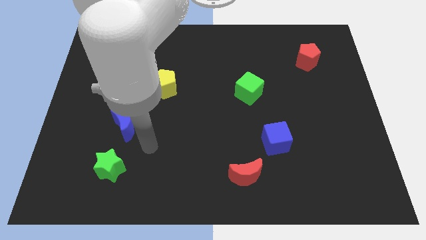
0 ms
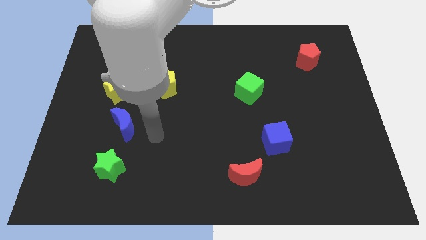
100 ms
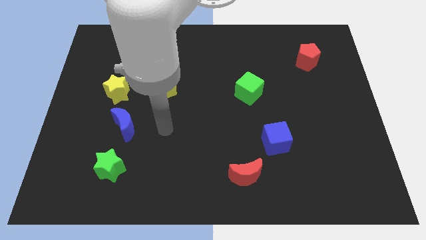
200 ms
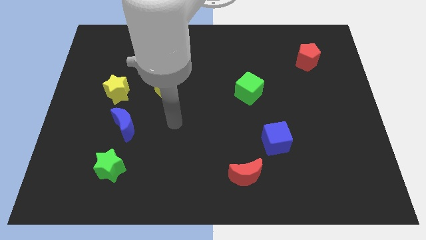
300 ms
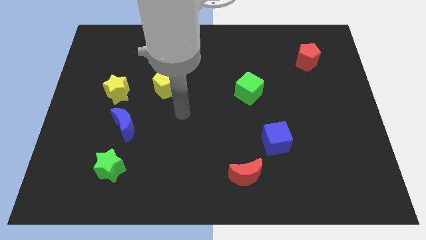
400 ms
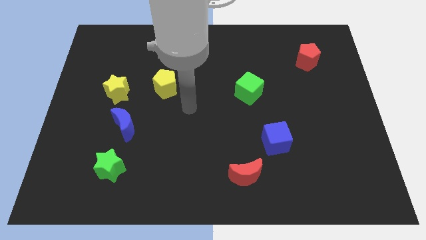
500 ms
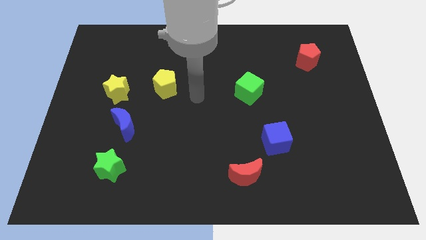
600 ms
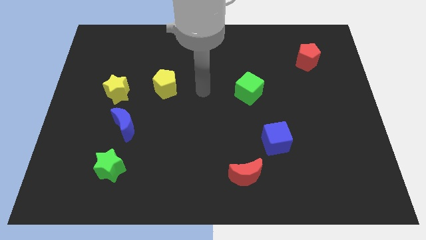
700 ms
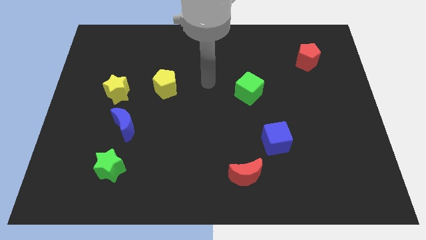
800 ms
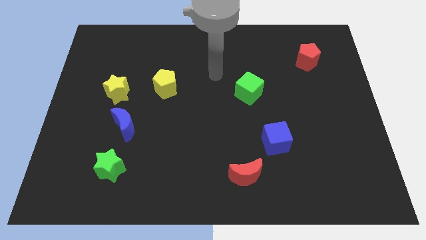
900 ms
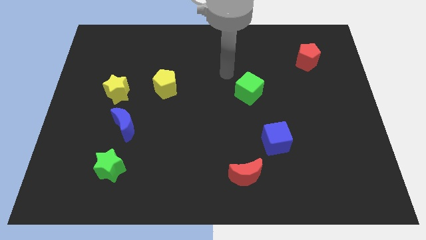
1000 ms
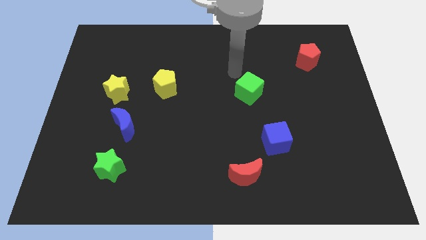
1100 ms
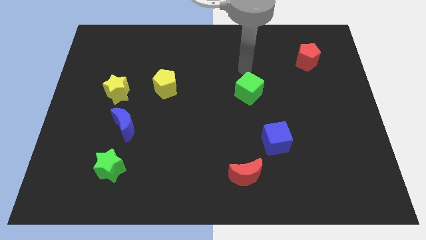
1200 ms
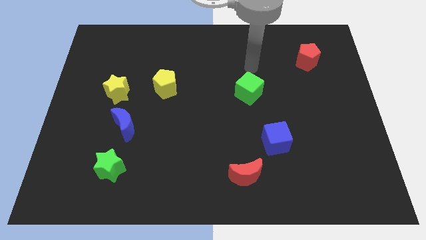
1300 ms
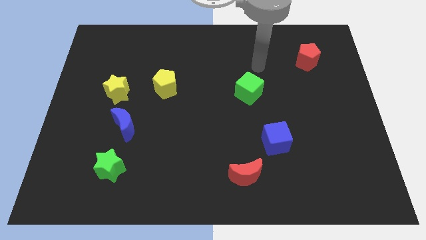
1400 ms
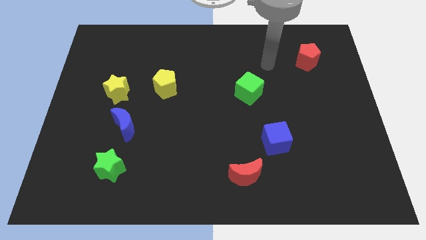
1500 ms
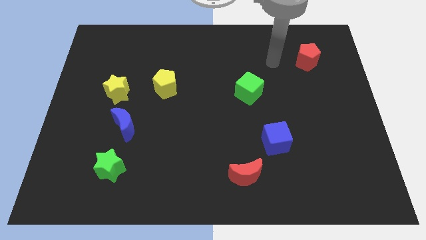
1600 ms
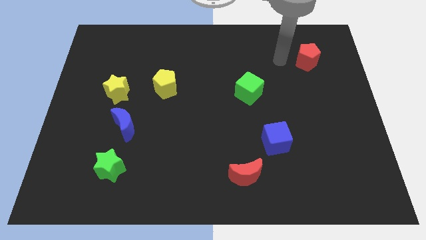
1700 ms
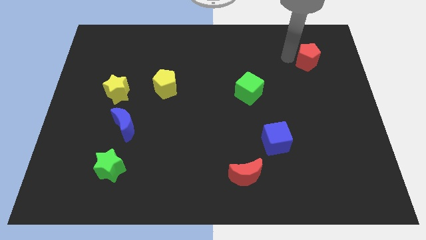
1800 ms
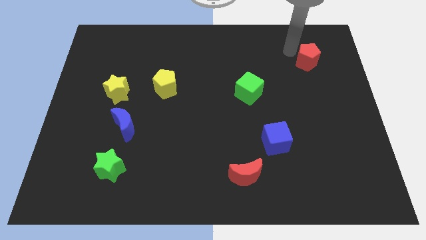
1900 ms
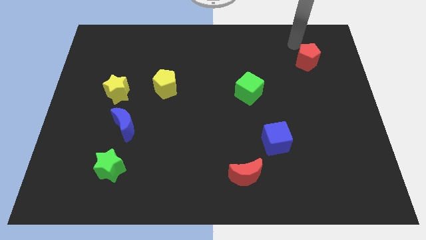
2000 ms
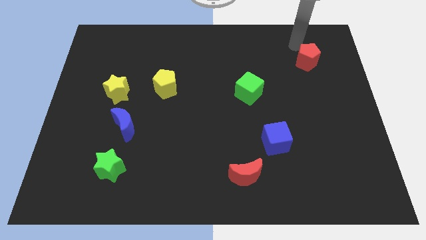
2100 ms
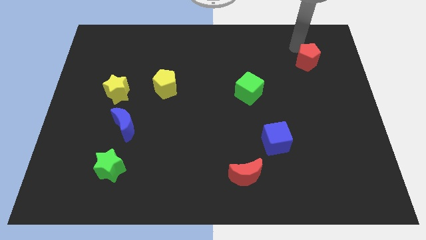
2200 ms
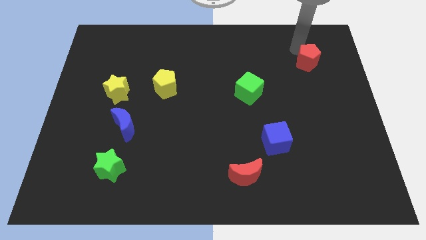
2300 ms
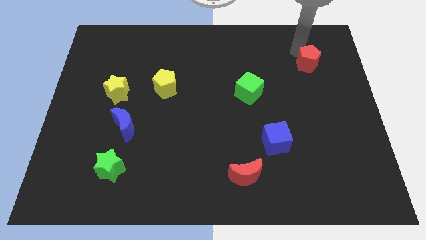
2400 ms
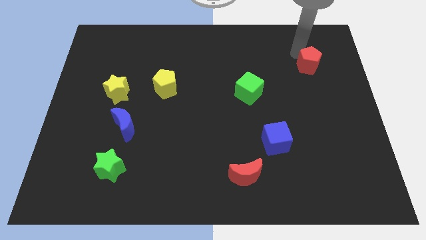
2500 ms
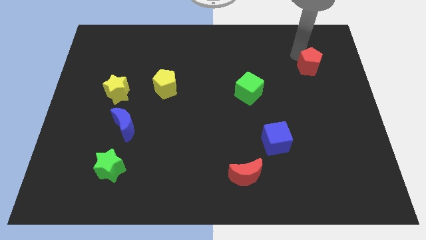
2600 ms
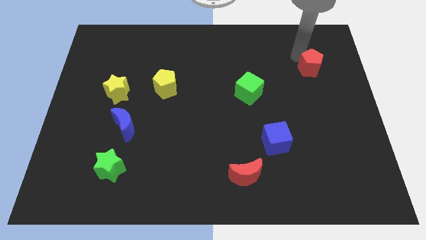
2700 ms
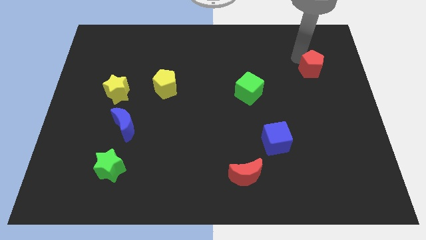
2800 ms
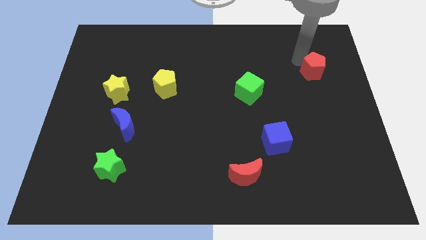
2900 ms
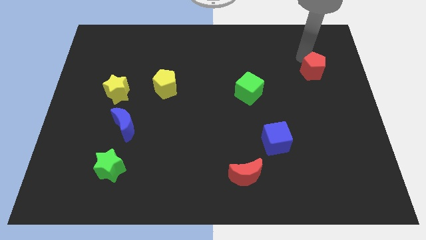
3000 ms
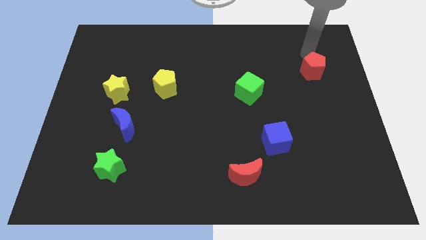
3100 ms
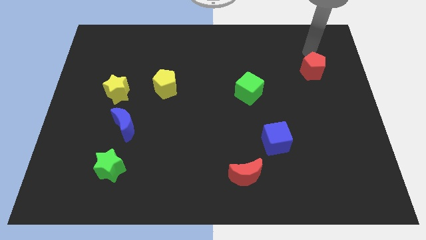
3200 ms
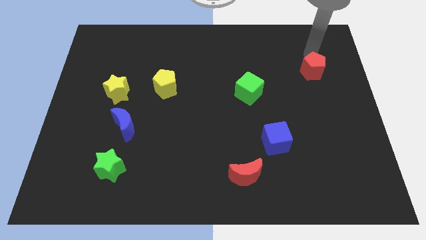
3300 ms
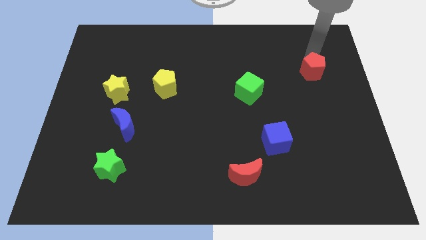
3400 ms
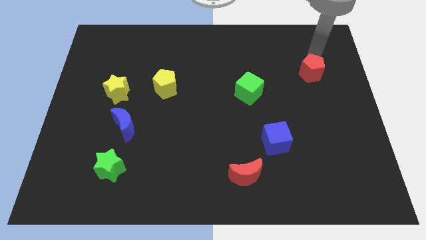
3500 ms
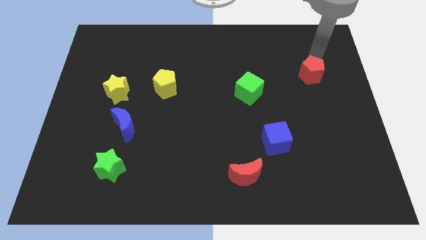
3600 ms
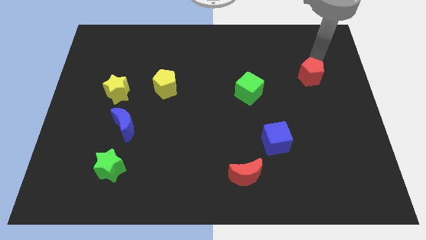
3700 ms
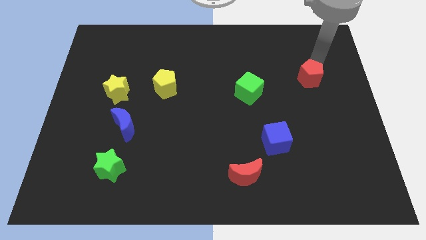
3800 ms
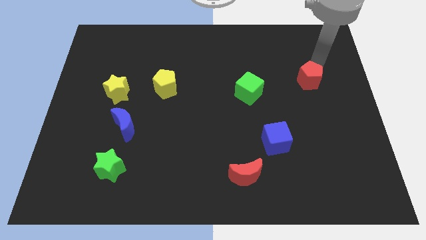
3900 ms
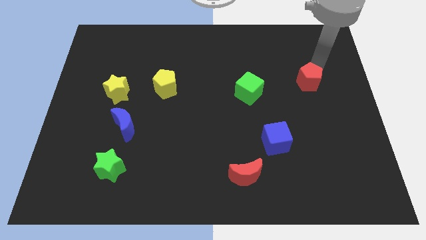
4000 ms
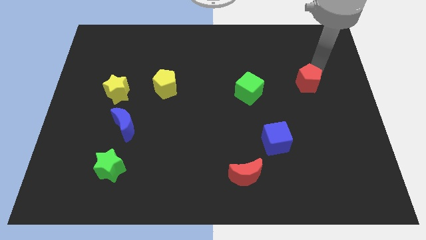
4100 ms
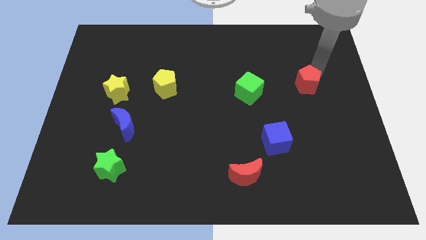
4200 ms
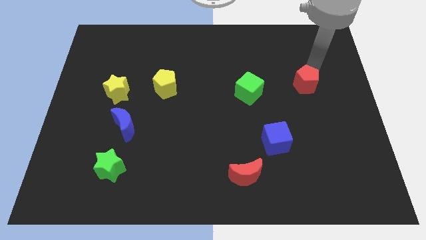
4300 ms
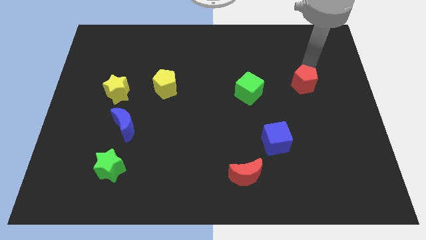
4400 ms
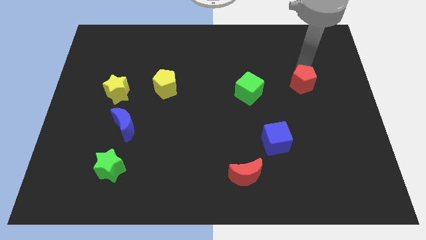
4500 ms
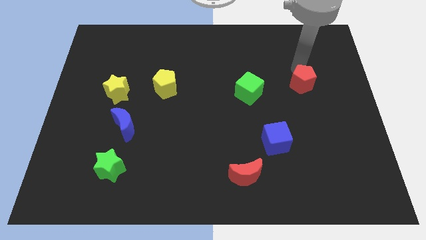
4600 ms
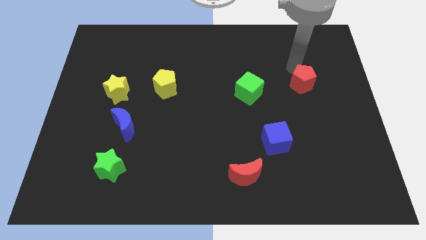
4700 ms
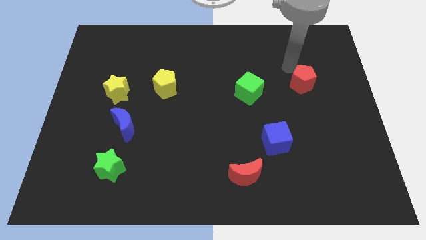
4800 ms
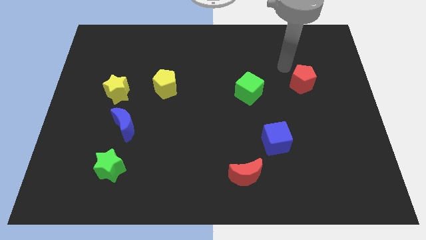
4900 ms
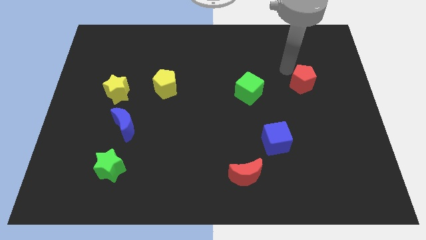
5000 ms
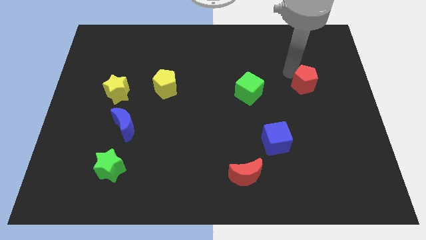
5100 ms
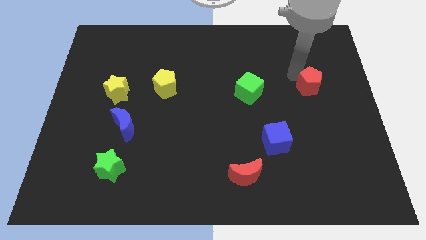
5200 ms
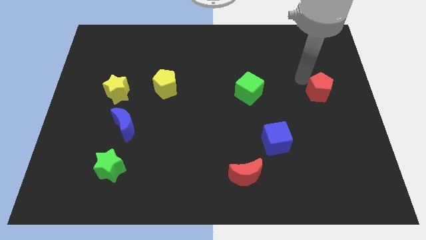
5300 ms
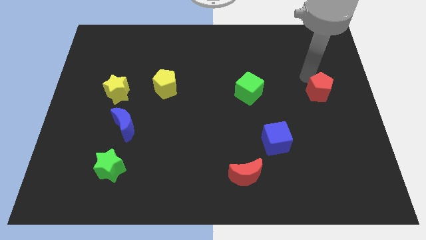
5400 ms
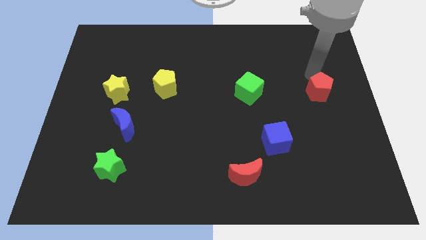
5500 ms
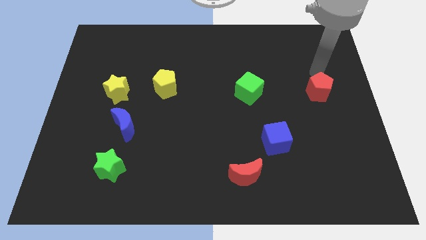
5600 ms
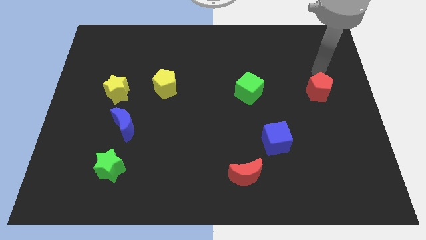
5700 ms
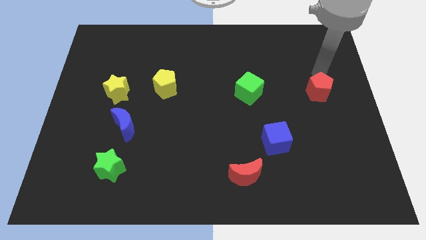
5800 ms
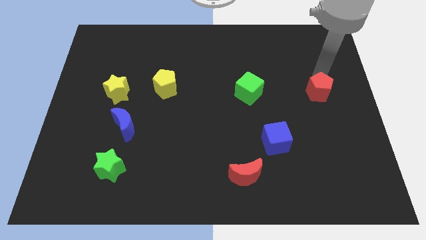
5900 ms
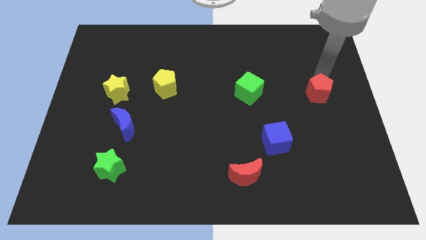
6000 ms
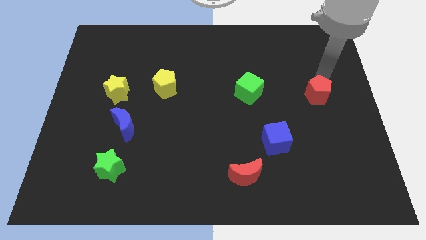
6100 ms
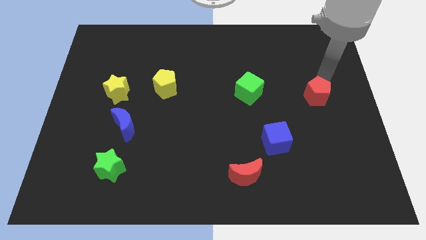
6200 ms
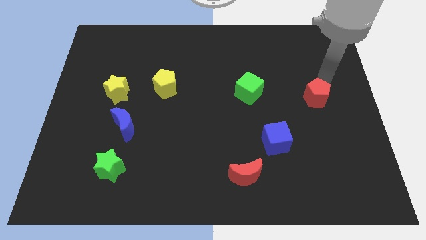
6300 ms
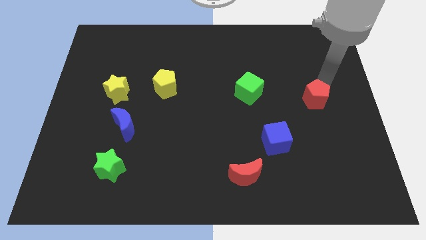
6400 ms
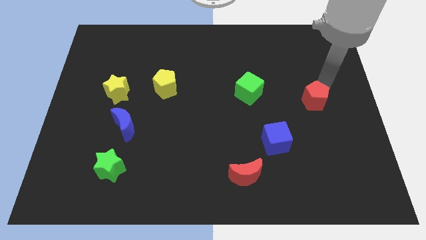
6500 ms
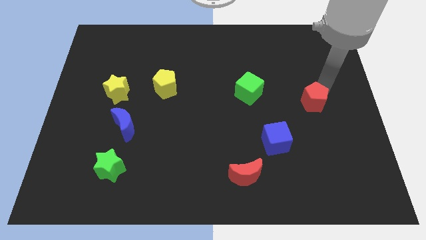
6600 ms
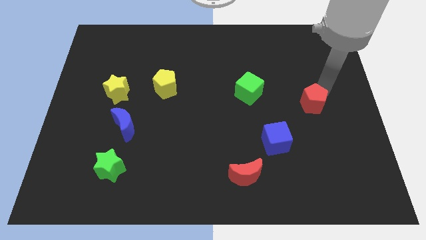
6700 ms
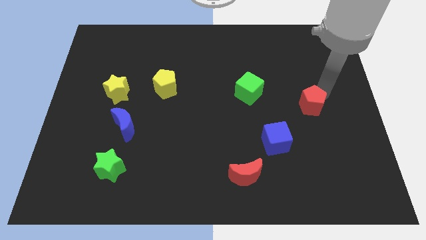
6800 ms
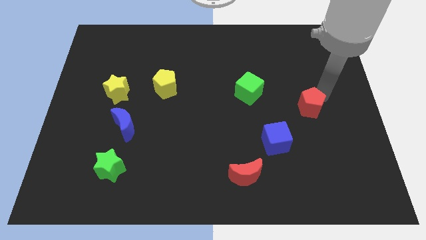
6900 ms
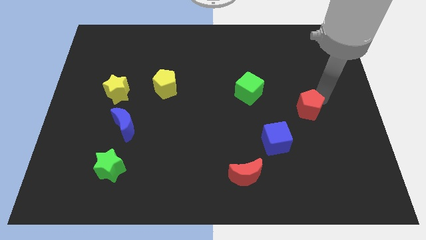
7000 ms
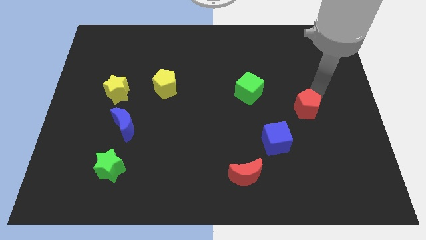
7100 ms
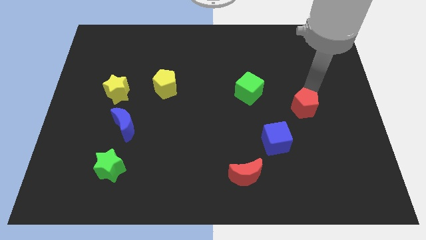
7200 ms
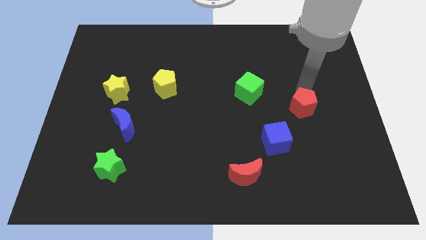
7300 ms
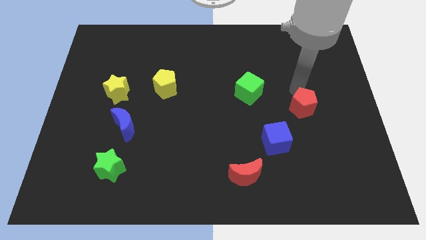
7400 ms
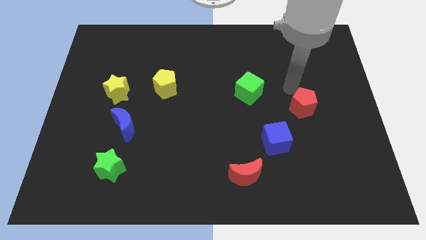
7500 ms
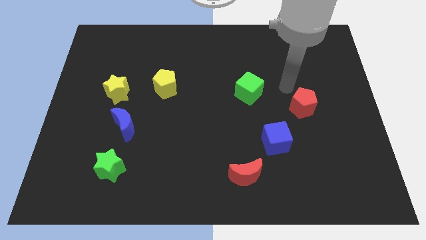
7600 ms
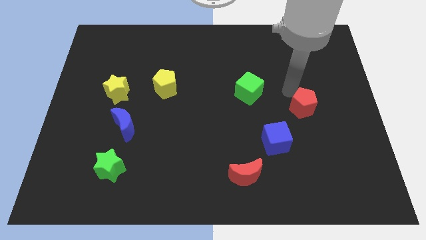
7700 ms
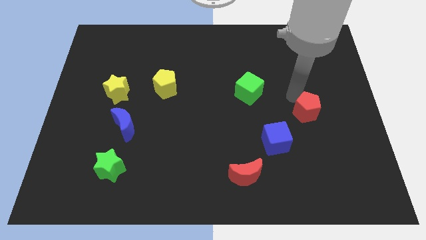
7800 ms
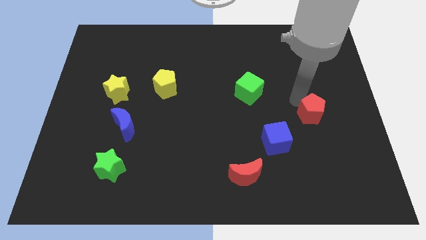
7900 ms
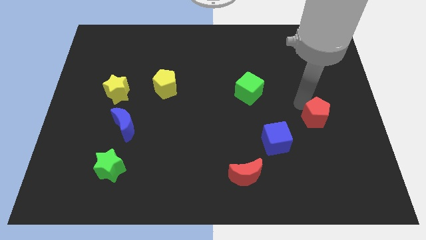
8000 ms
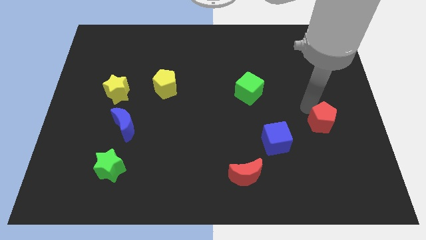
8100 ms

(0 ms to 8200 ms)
move the red pentagon down
